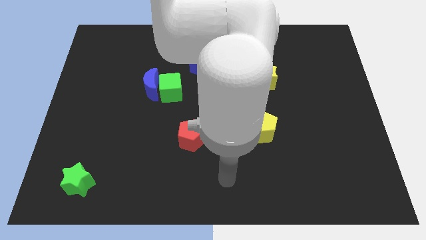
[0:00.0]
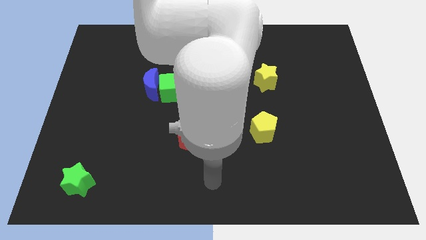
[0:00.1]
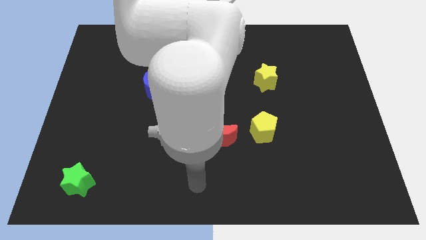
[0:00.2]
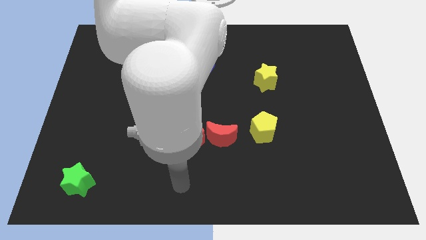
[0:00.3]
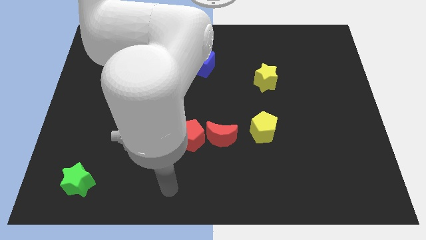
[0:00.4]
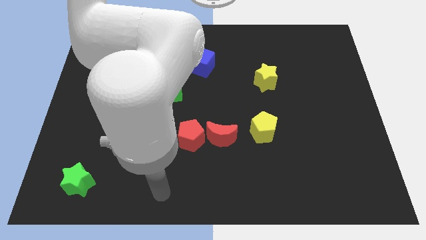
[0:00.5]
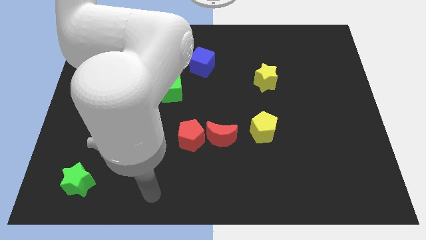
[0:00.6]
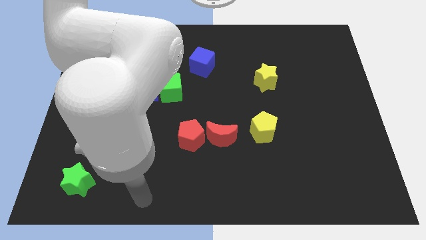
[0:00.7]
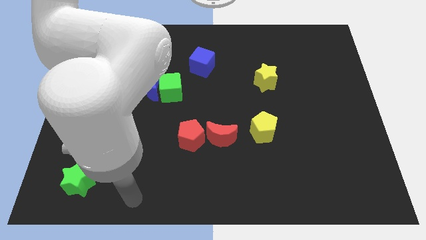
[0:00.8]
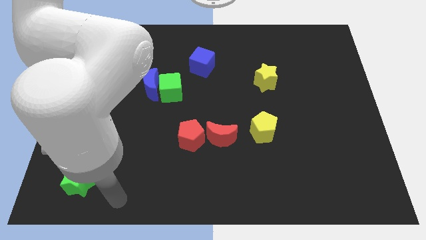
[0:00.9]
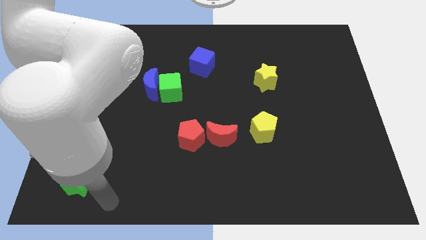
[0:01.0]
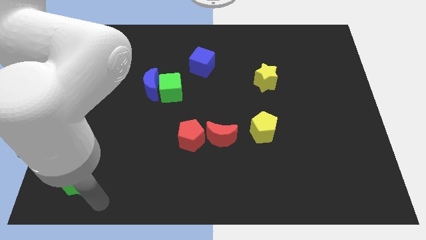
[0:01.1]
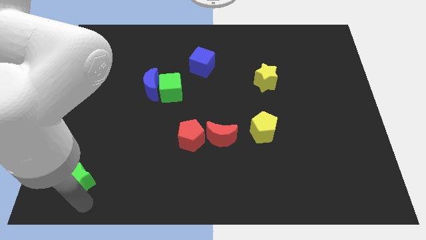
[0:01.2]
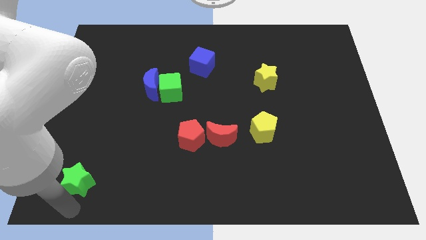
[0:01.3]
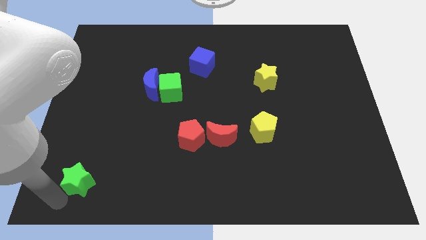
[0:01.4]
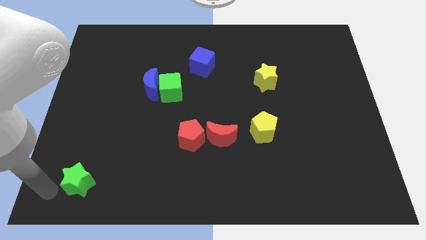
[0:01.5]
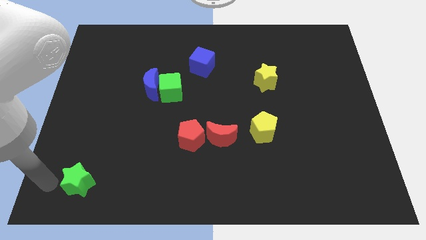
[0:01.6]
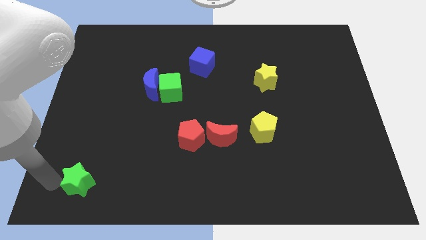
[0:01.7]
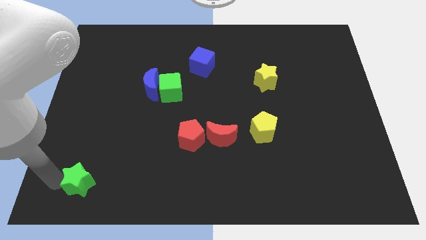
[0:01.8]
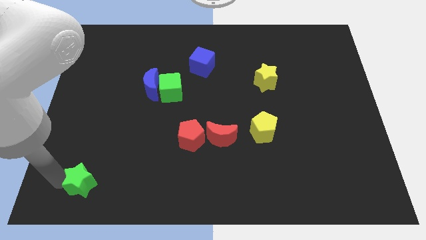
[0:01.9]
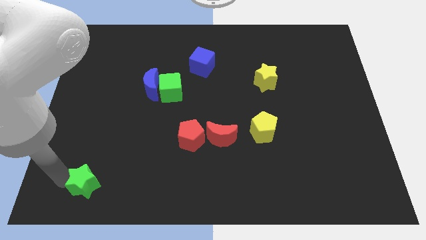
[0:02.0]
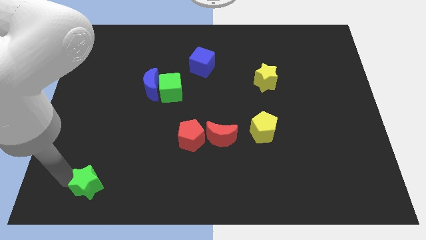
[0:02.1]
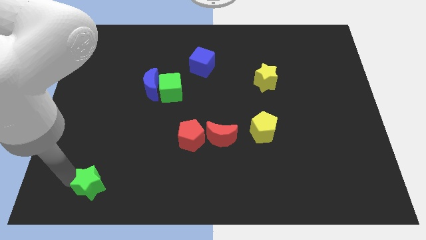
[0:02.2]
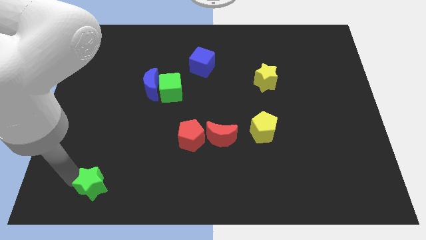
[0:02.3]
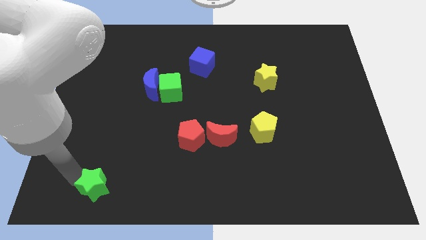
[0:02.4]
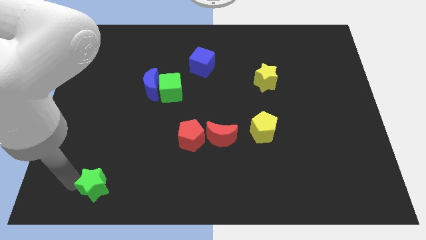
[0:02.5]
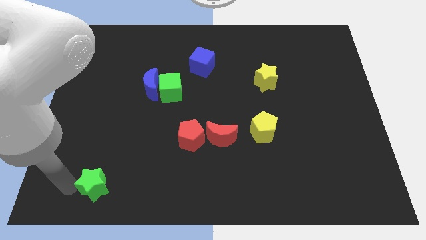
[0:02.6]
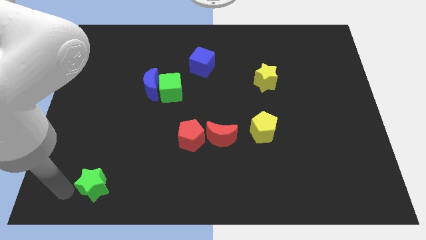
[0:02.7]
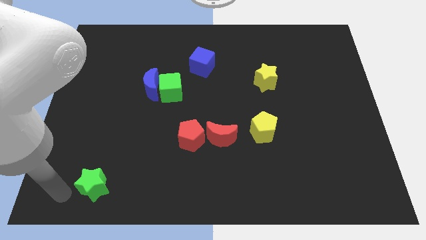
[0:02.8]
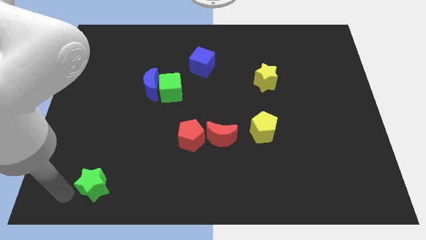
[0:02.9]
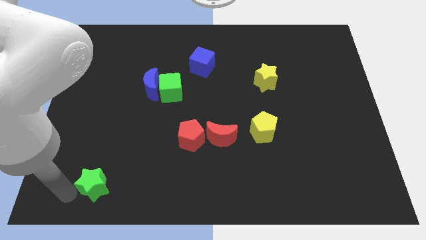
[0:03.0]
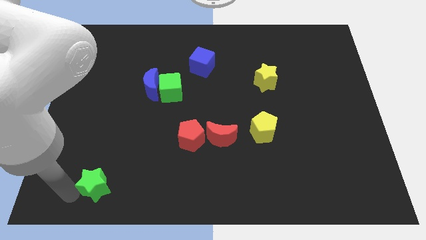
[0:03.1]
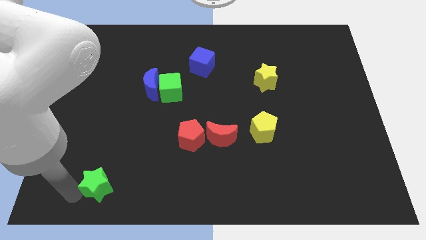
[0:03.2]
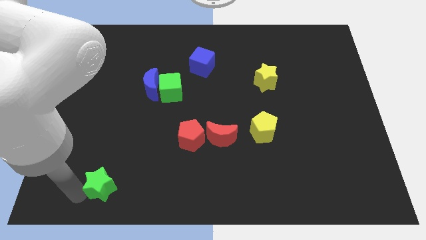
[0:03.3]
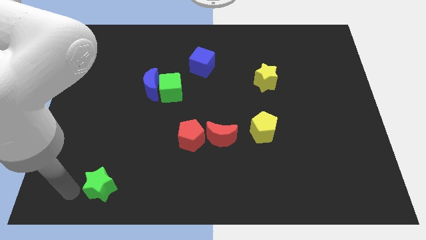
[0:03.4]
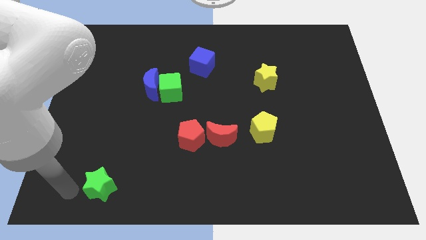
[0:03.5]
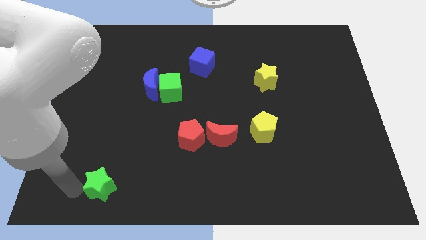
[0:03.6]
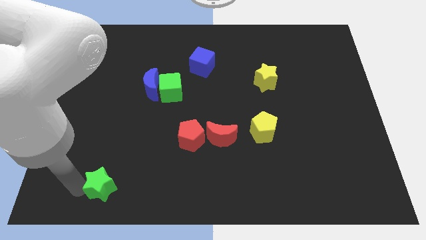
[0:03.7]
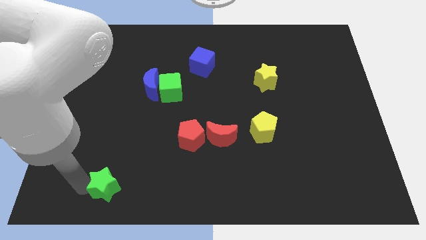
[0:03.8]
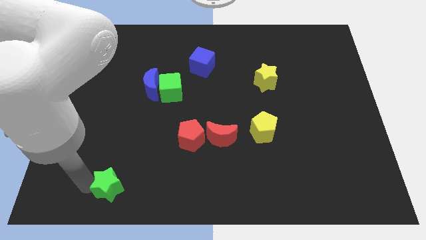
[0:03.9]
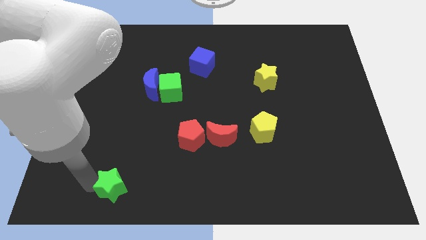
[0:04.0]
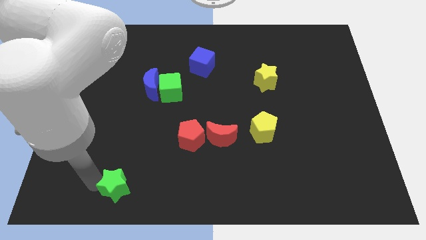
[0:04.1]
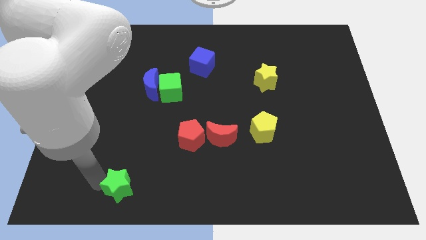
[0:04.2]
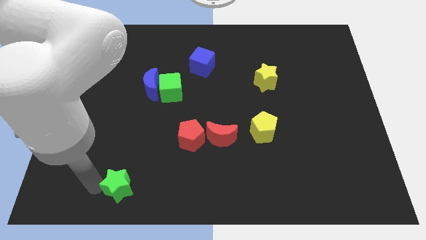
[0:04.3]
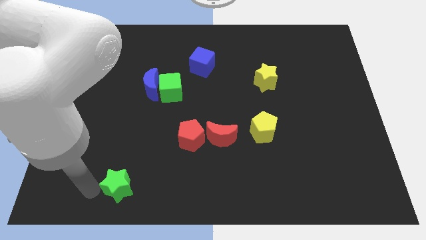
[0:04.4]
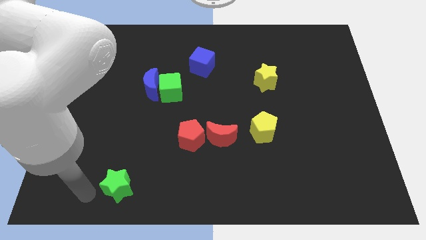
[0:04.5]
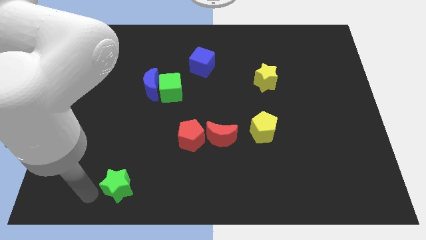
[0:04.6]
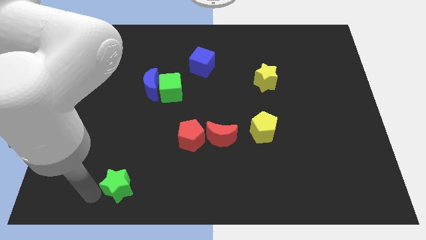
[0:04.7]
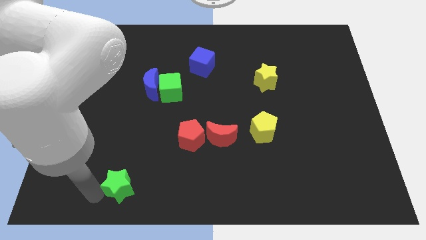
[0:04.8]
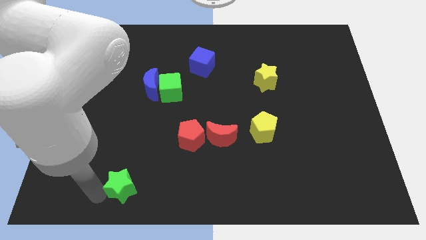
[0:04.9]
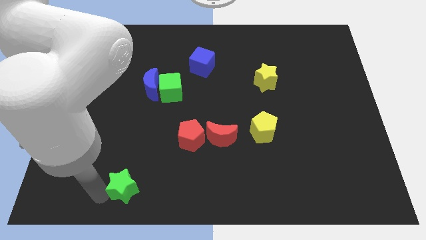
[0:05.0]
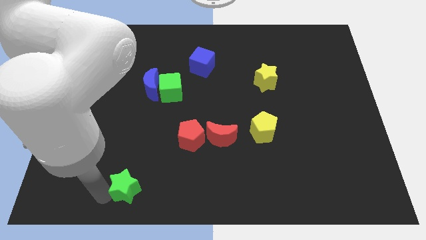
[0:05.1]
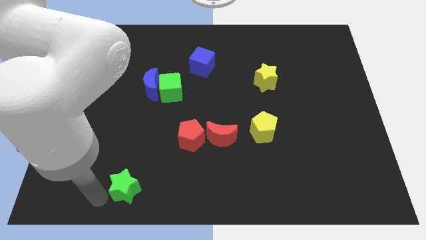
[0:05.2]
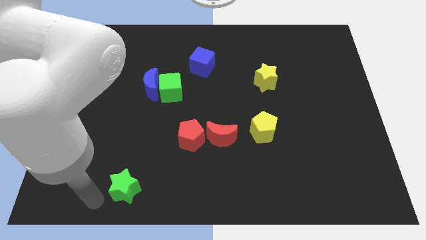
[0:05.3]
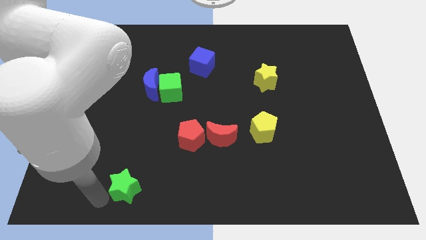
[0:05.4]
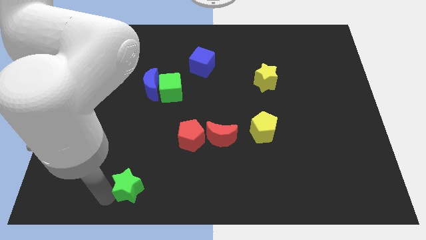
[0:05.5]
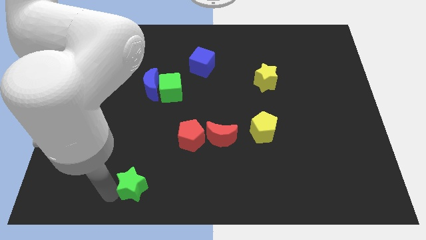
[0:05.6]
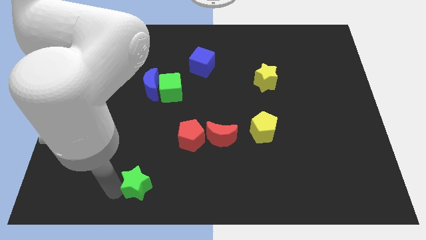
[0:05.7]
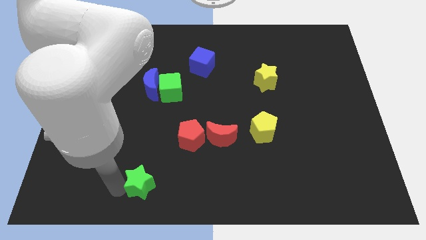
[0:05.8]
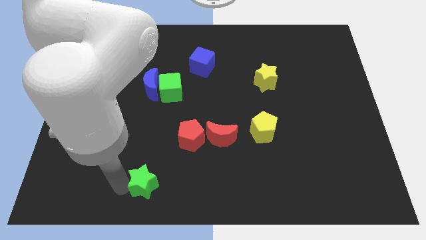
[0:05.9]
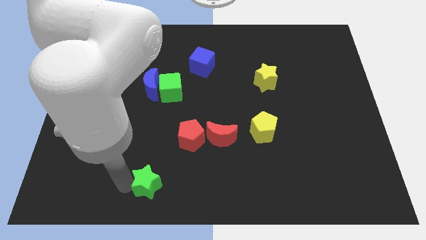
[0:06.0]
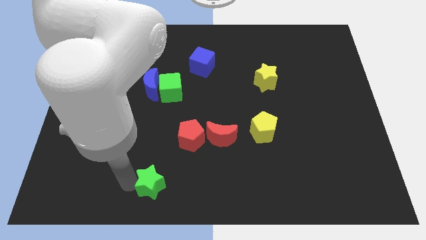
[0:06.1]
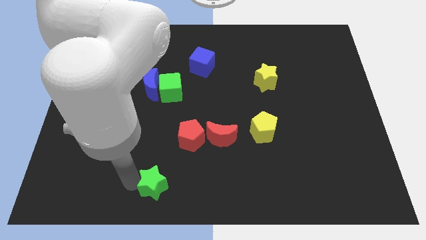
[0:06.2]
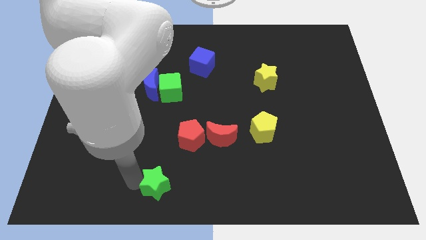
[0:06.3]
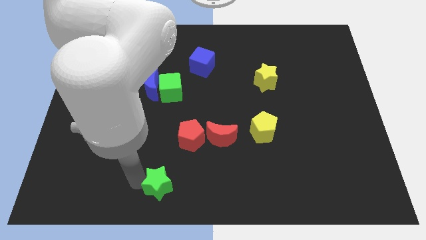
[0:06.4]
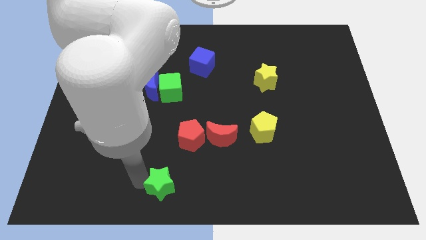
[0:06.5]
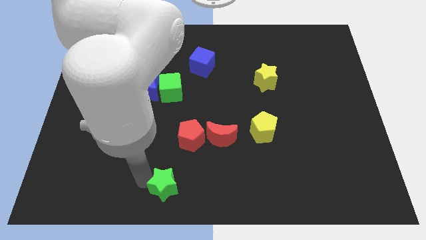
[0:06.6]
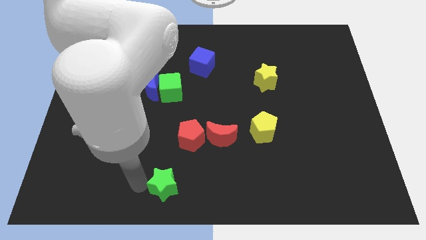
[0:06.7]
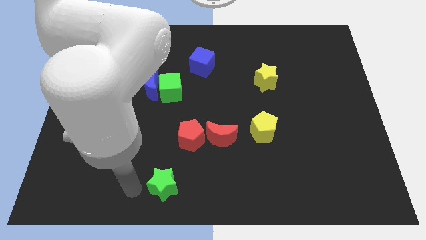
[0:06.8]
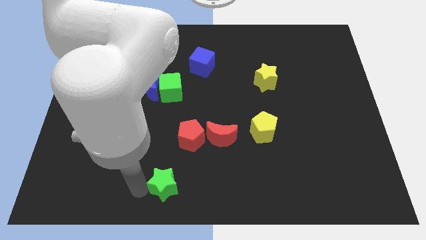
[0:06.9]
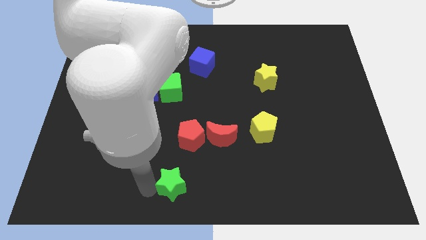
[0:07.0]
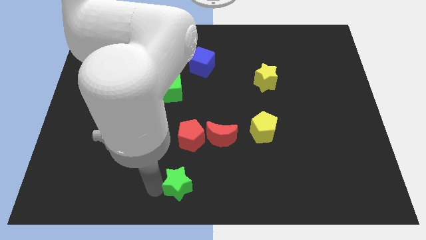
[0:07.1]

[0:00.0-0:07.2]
push the green star to the right

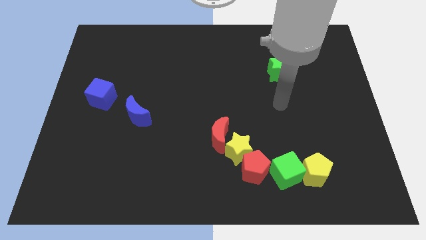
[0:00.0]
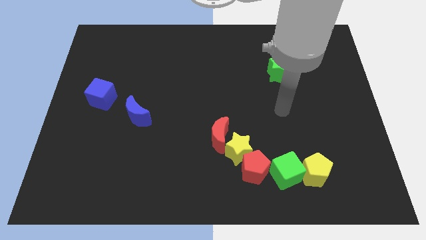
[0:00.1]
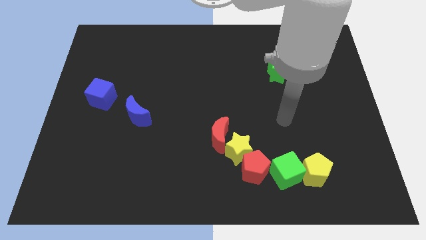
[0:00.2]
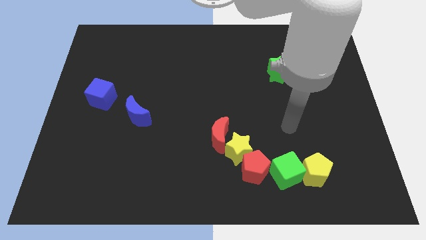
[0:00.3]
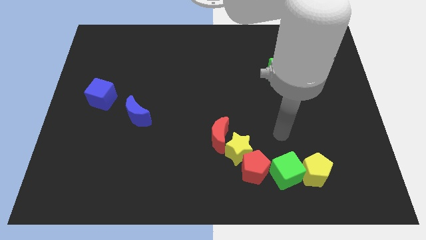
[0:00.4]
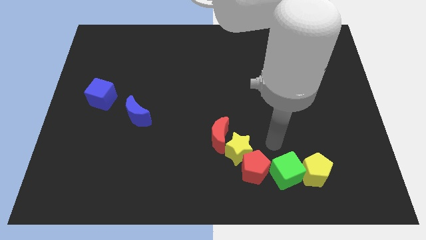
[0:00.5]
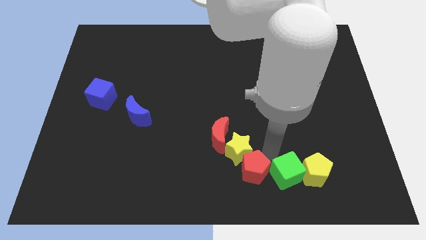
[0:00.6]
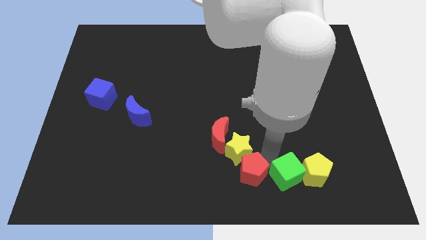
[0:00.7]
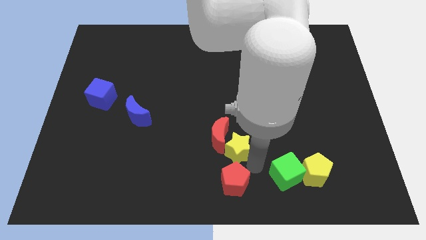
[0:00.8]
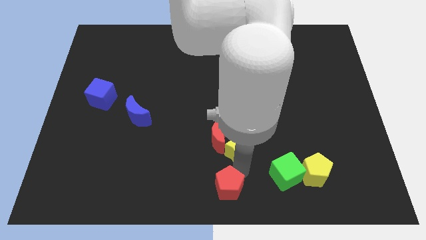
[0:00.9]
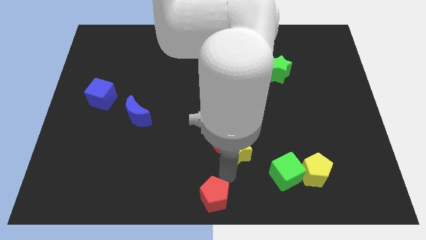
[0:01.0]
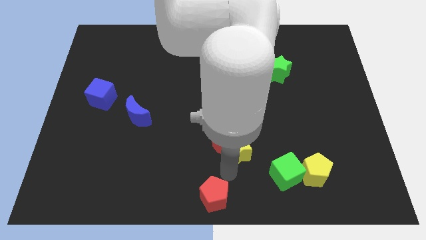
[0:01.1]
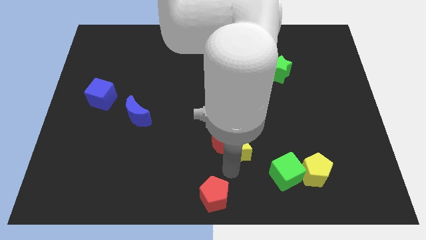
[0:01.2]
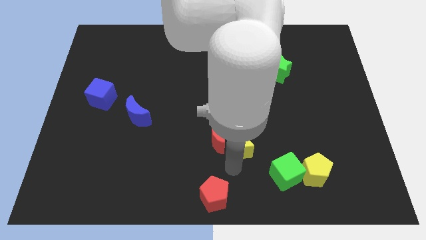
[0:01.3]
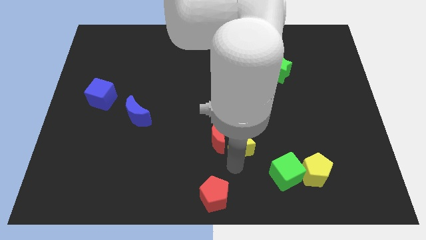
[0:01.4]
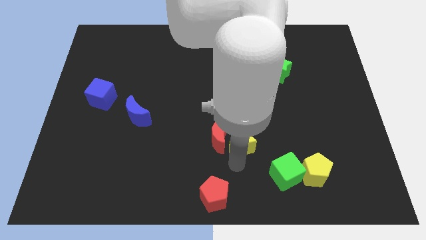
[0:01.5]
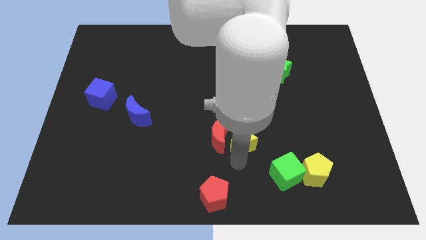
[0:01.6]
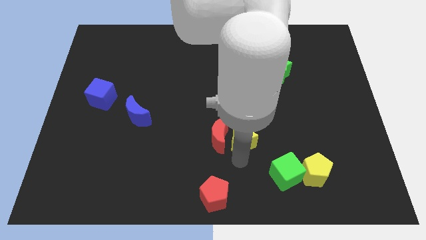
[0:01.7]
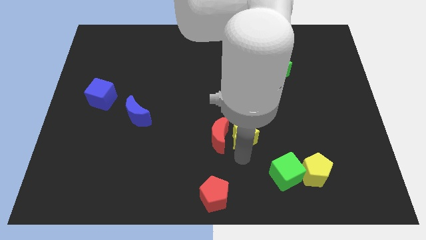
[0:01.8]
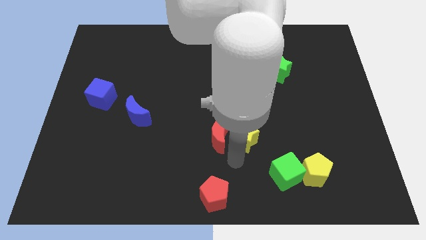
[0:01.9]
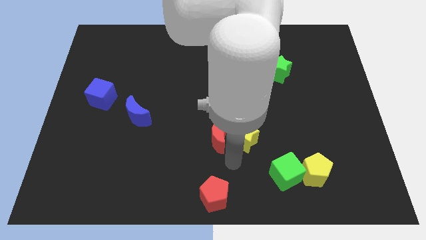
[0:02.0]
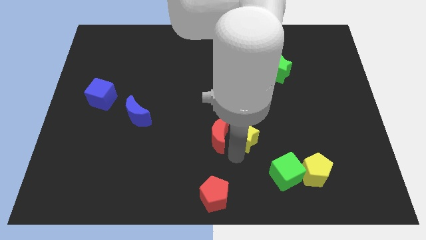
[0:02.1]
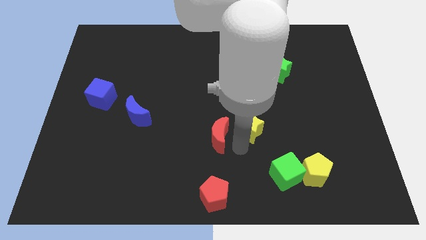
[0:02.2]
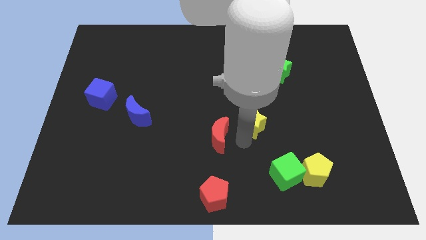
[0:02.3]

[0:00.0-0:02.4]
slightly move the yellow star up and then to the right
